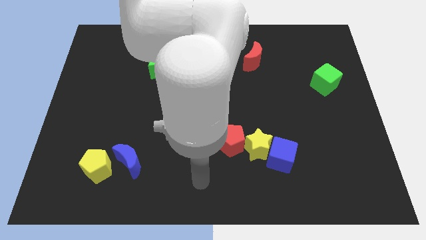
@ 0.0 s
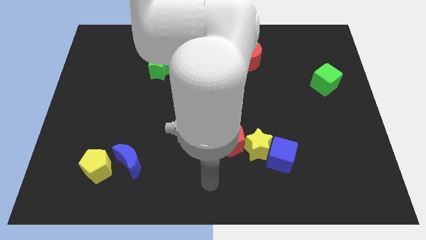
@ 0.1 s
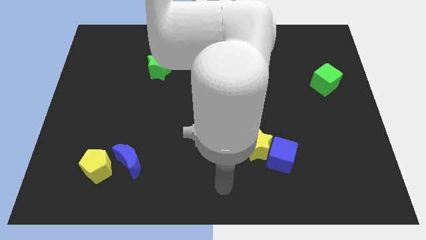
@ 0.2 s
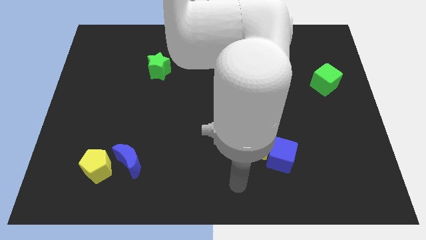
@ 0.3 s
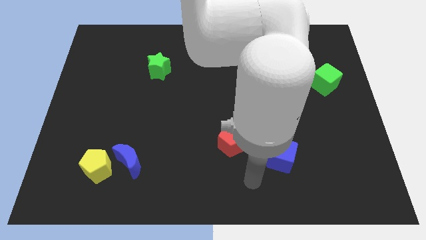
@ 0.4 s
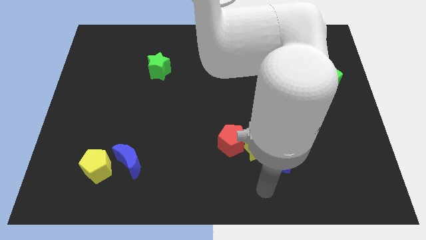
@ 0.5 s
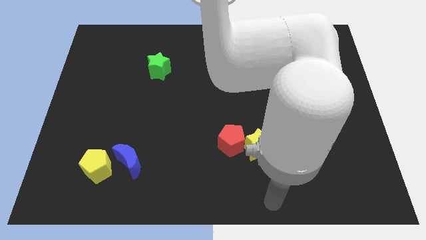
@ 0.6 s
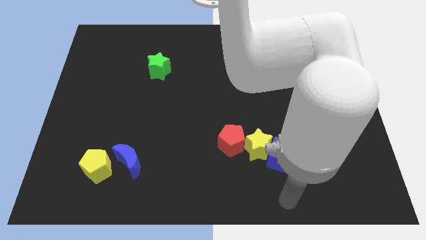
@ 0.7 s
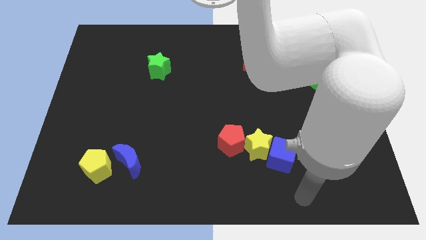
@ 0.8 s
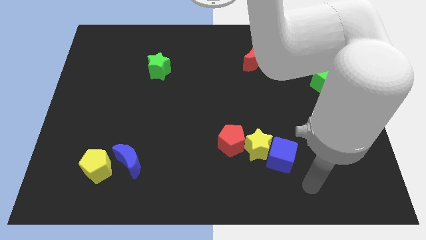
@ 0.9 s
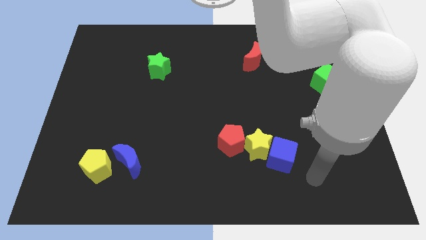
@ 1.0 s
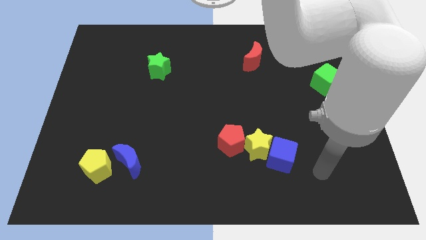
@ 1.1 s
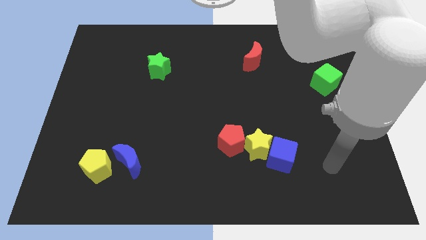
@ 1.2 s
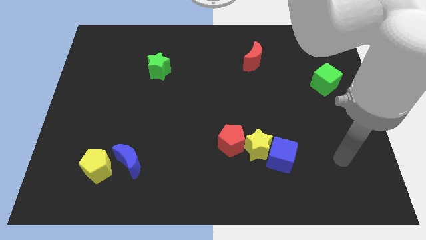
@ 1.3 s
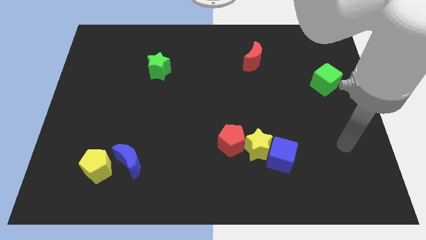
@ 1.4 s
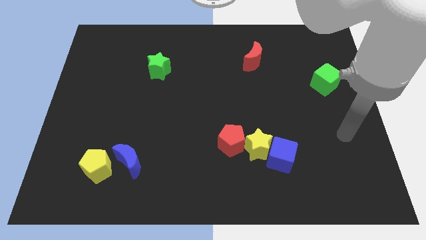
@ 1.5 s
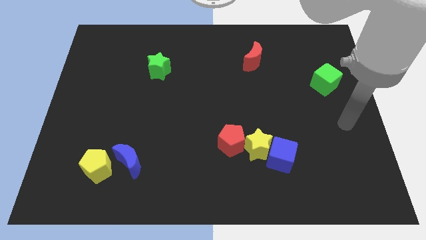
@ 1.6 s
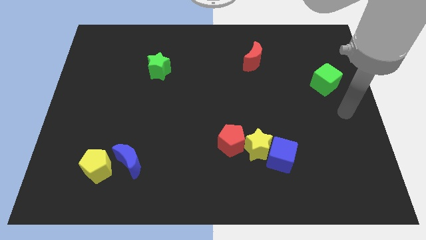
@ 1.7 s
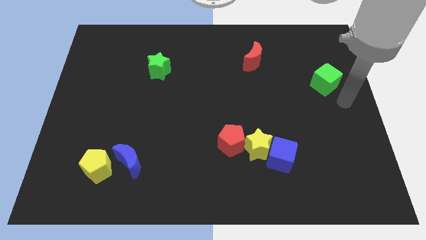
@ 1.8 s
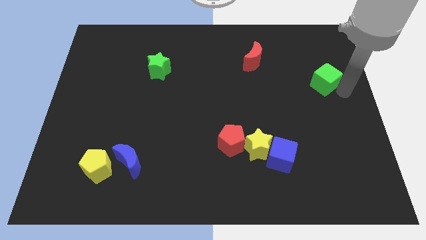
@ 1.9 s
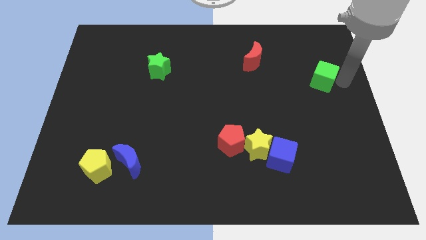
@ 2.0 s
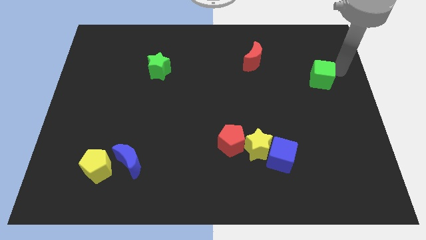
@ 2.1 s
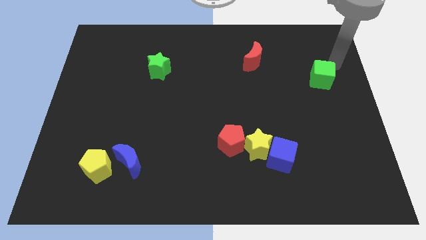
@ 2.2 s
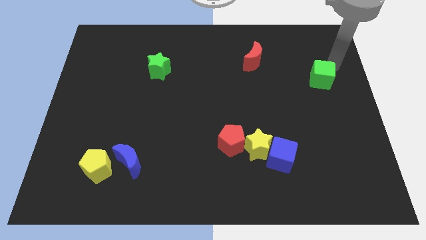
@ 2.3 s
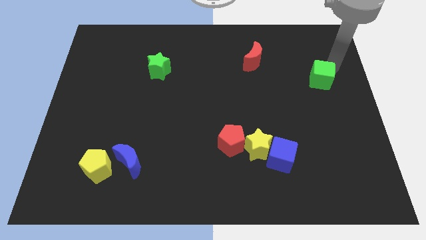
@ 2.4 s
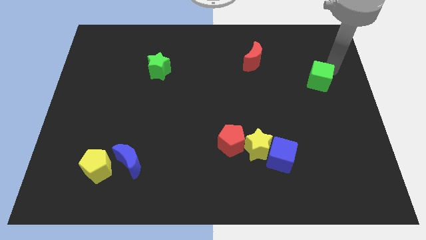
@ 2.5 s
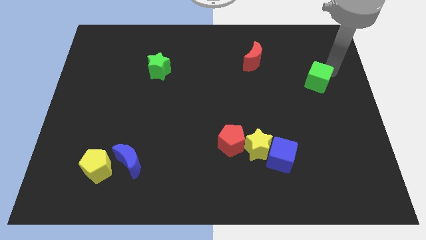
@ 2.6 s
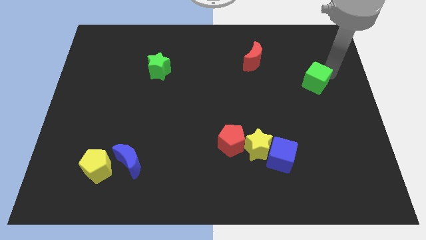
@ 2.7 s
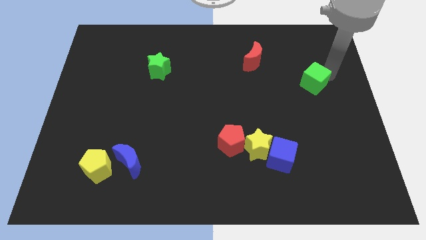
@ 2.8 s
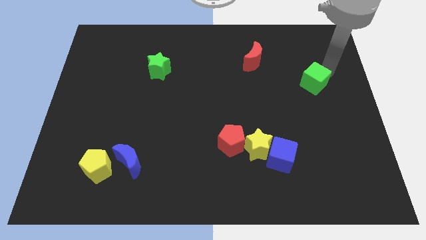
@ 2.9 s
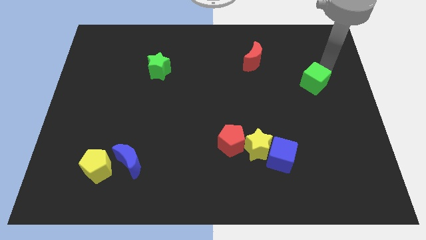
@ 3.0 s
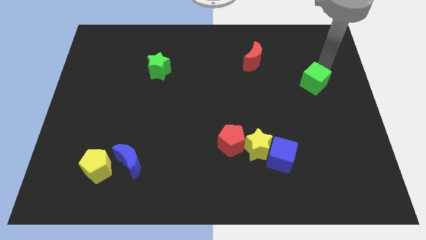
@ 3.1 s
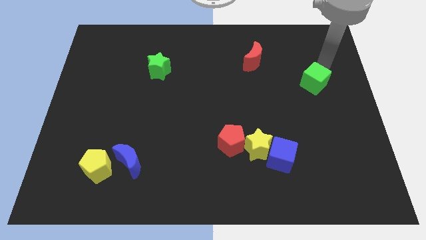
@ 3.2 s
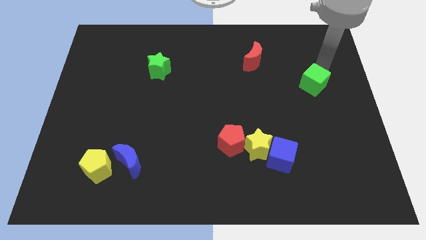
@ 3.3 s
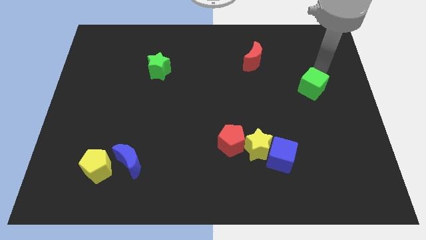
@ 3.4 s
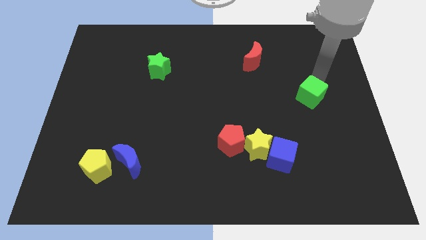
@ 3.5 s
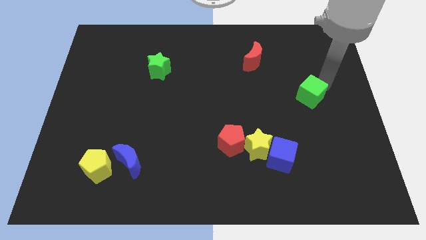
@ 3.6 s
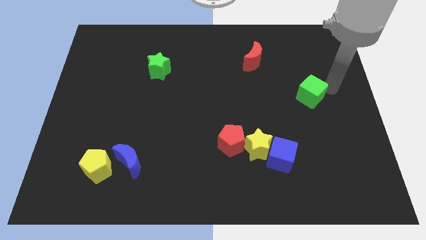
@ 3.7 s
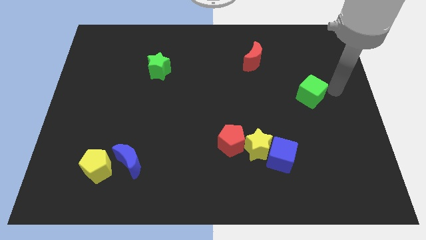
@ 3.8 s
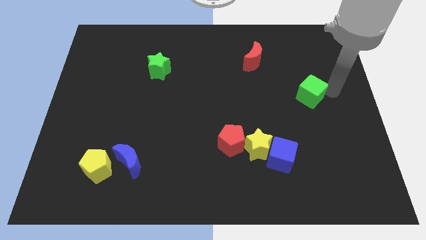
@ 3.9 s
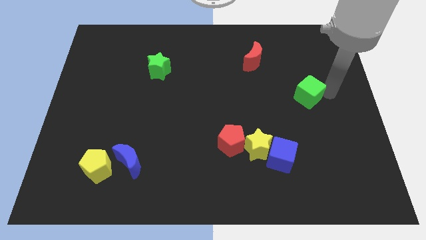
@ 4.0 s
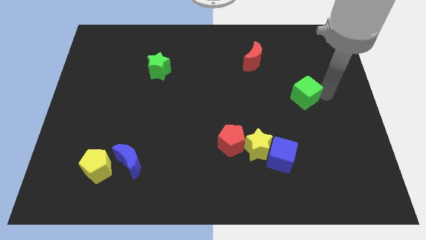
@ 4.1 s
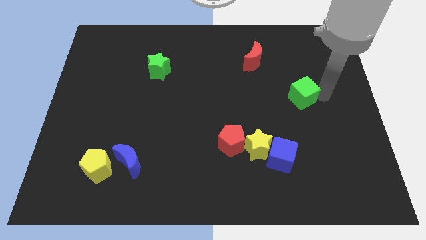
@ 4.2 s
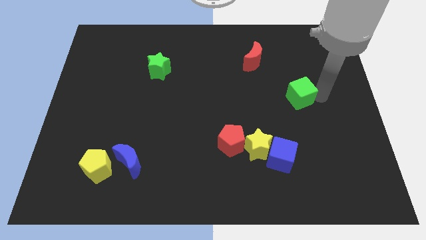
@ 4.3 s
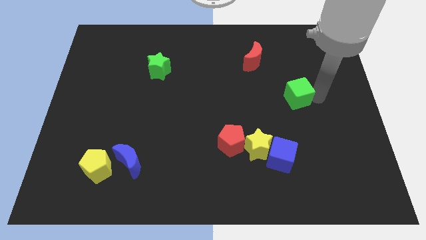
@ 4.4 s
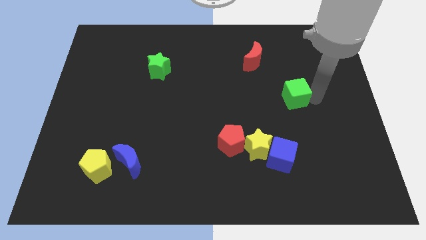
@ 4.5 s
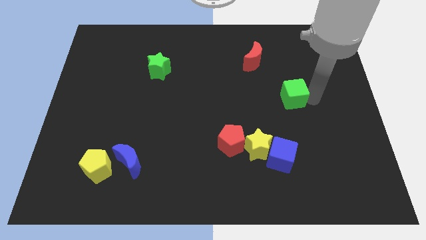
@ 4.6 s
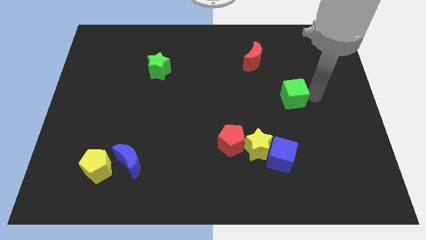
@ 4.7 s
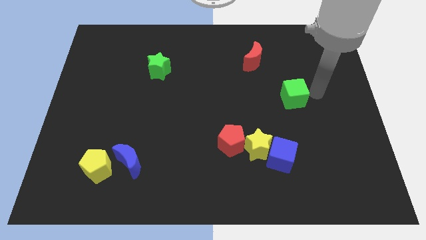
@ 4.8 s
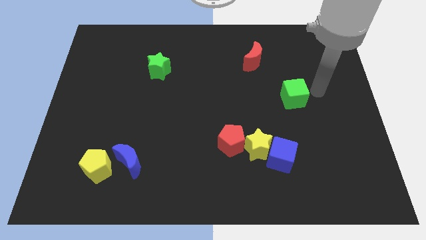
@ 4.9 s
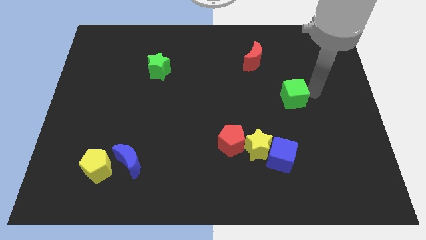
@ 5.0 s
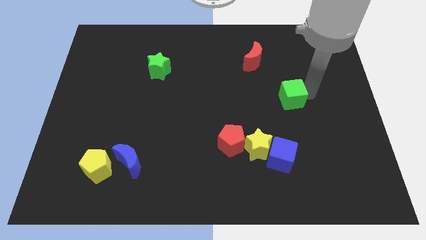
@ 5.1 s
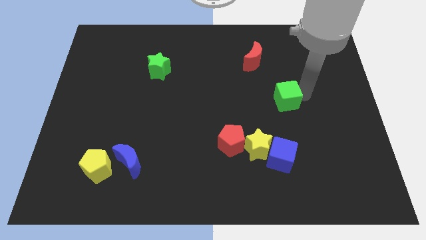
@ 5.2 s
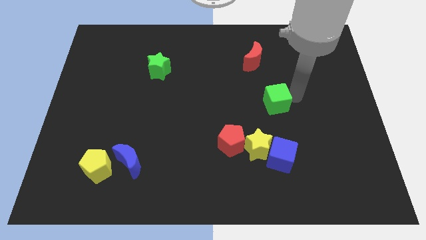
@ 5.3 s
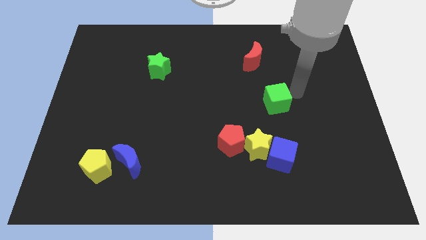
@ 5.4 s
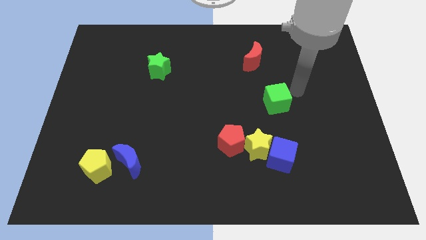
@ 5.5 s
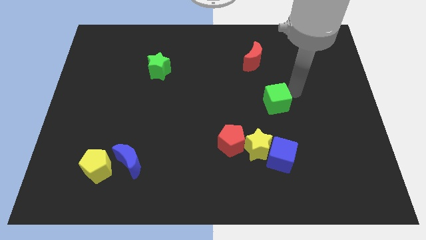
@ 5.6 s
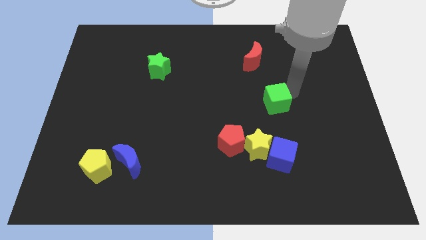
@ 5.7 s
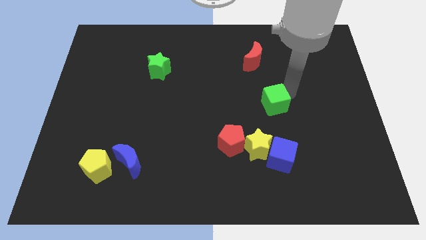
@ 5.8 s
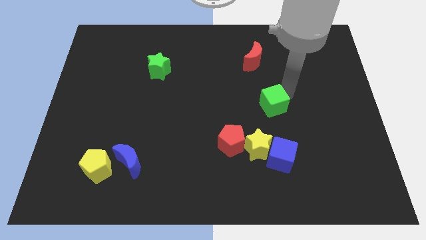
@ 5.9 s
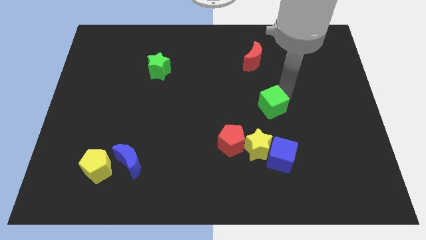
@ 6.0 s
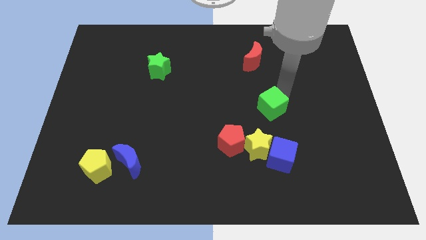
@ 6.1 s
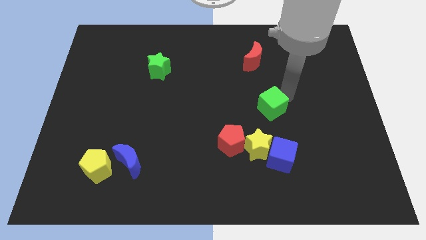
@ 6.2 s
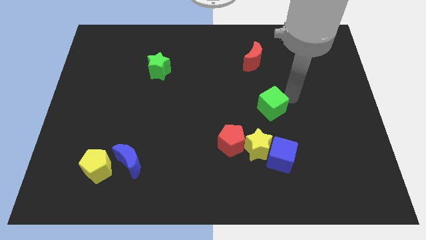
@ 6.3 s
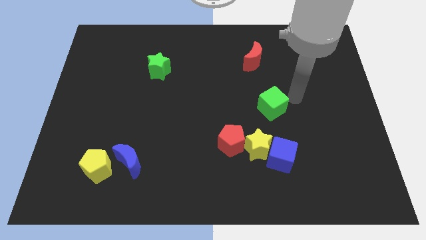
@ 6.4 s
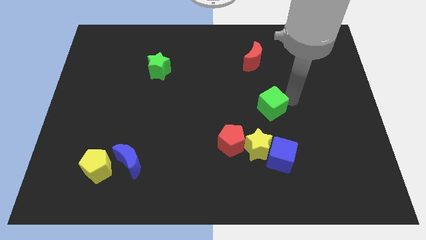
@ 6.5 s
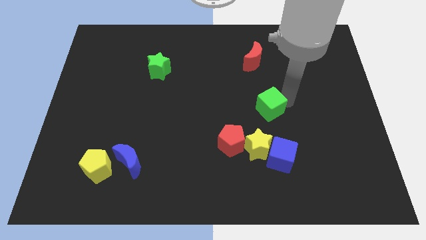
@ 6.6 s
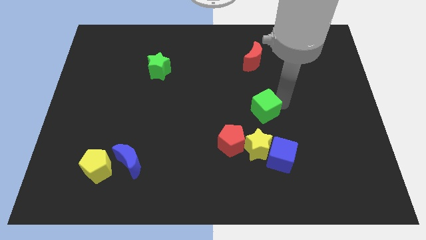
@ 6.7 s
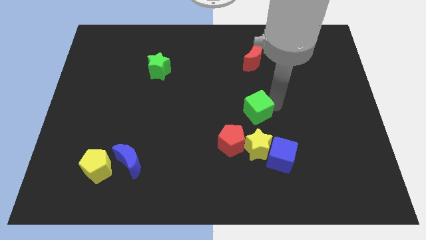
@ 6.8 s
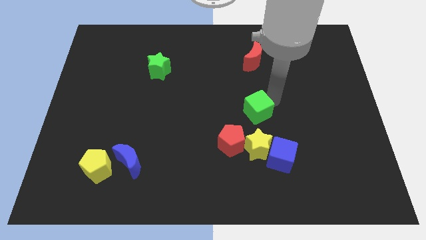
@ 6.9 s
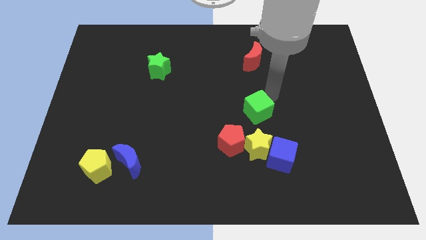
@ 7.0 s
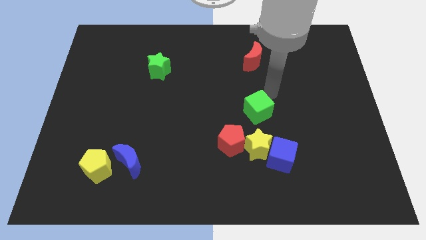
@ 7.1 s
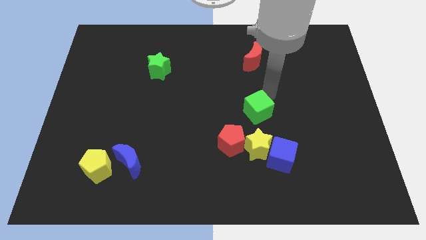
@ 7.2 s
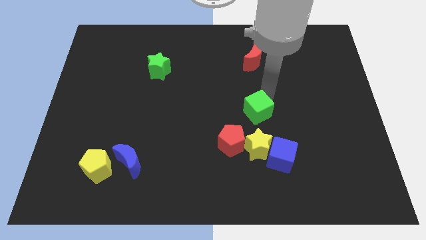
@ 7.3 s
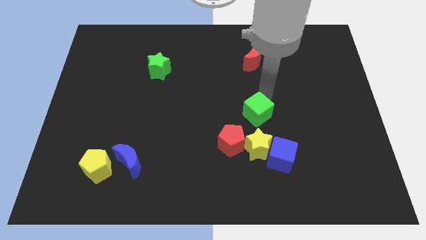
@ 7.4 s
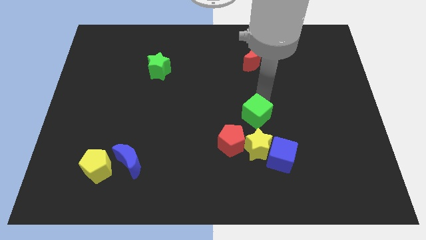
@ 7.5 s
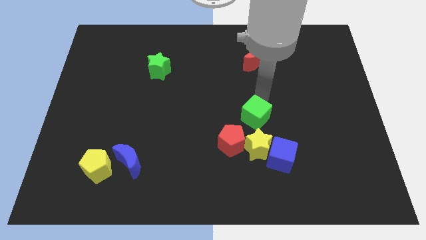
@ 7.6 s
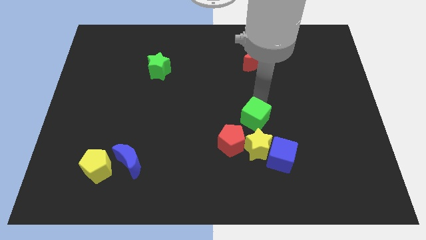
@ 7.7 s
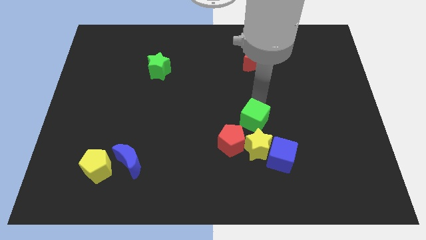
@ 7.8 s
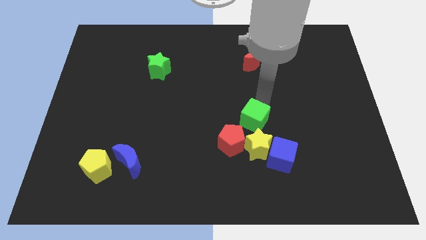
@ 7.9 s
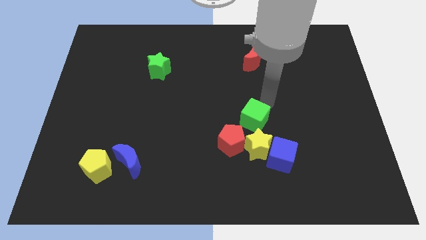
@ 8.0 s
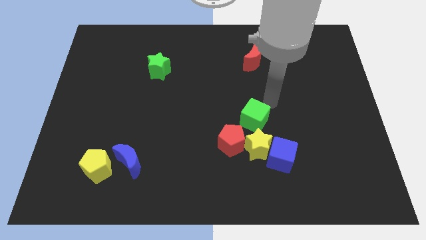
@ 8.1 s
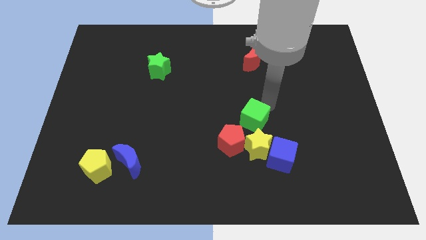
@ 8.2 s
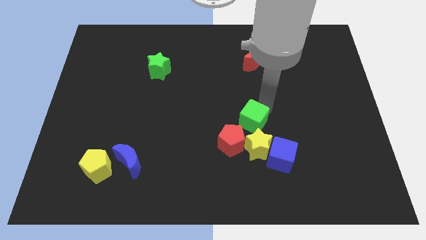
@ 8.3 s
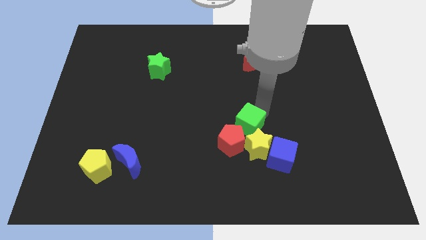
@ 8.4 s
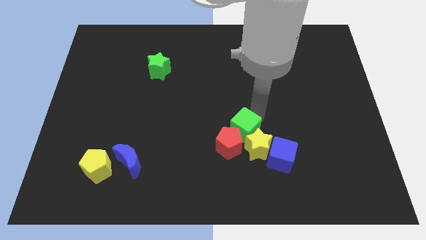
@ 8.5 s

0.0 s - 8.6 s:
put the green cube close to the red pentagon
